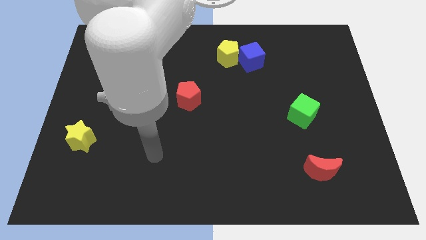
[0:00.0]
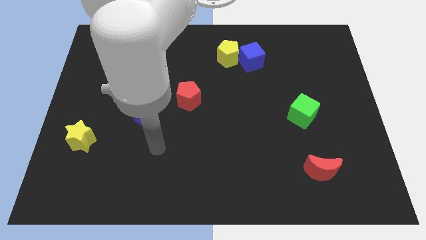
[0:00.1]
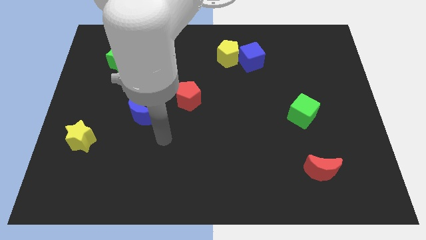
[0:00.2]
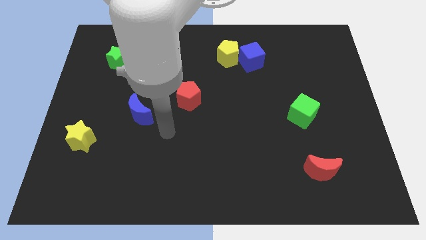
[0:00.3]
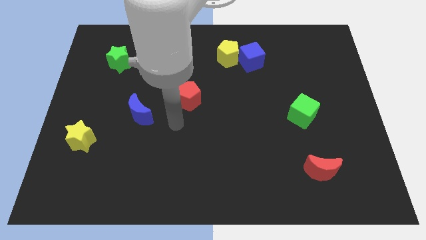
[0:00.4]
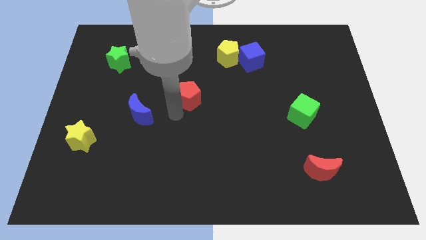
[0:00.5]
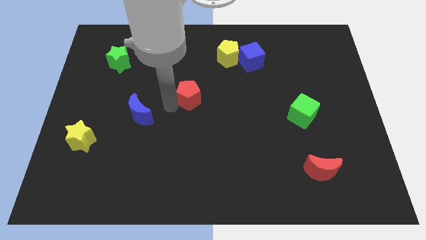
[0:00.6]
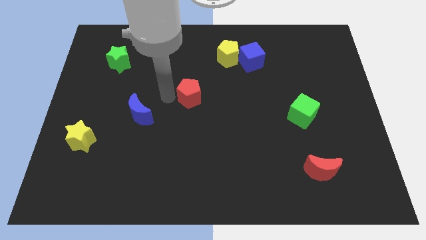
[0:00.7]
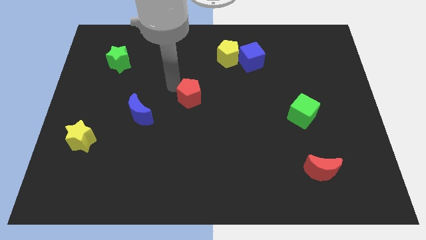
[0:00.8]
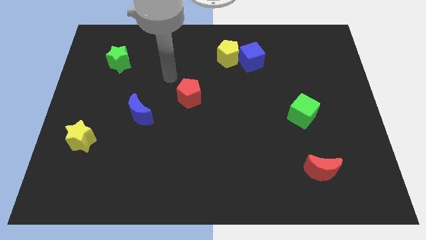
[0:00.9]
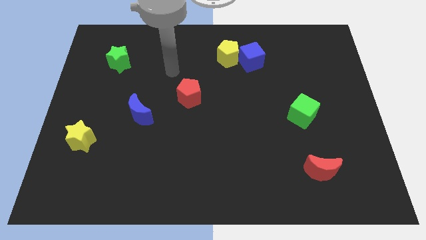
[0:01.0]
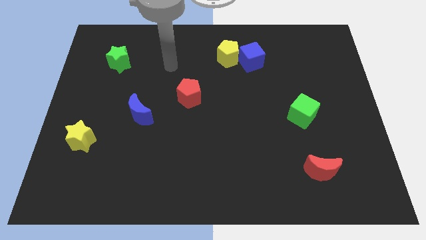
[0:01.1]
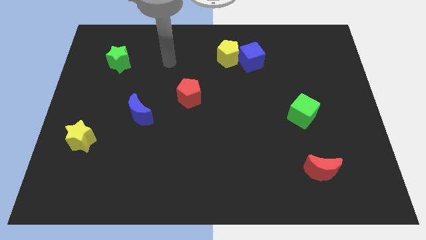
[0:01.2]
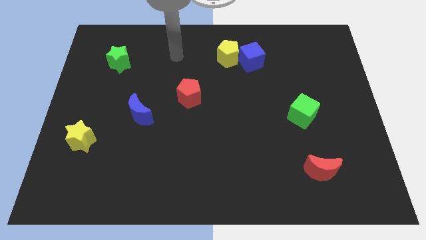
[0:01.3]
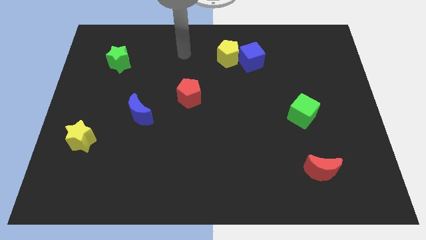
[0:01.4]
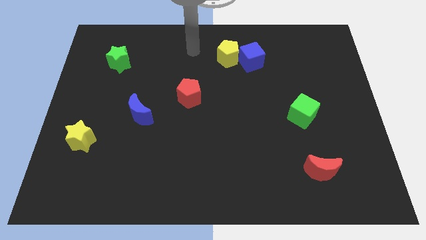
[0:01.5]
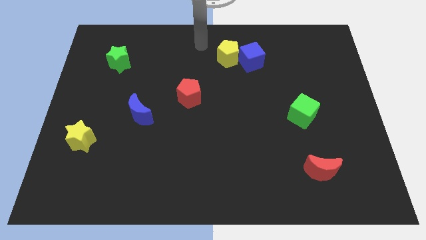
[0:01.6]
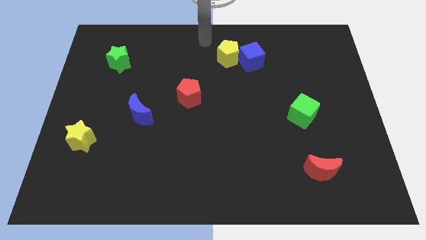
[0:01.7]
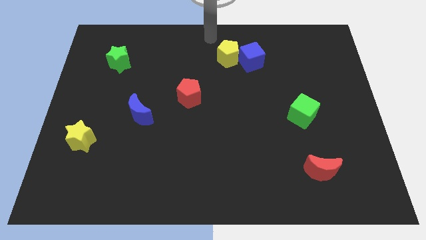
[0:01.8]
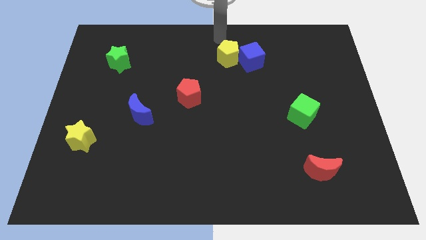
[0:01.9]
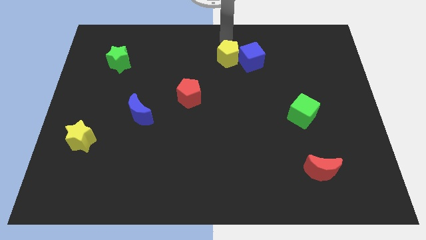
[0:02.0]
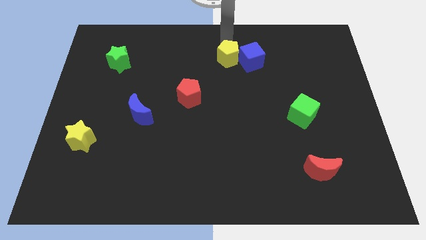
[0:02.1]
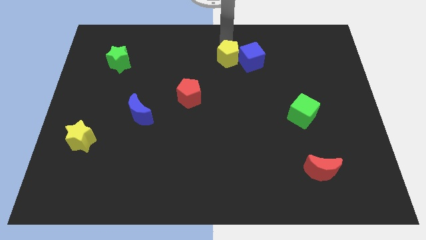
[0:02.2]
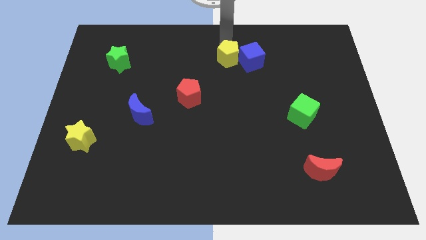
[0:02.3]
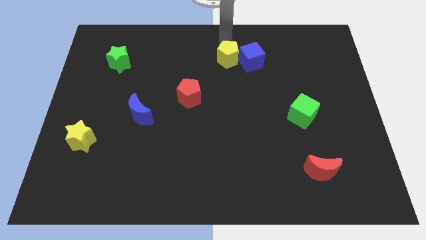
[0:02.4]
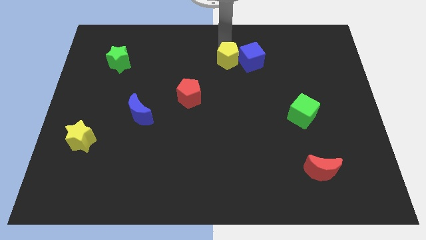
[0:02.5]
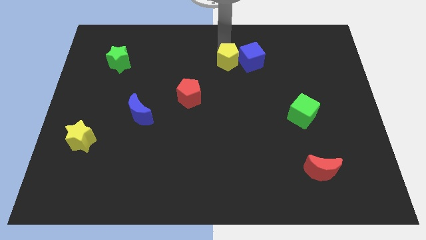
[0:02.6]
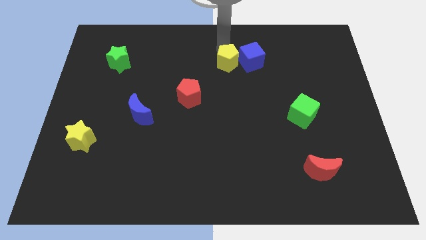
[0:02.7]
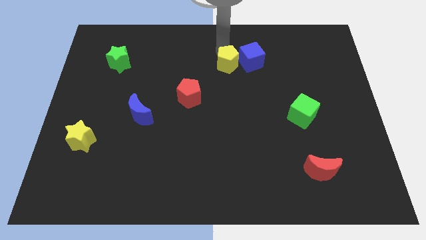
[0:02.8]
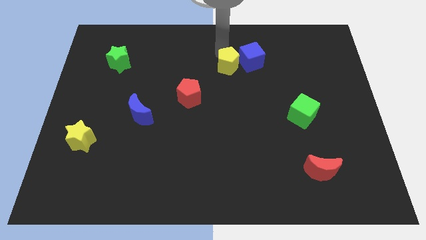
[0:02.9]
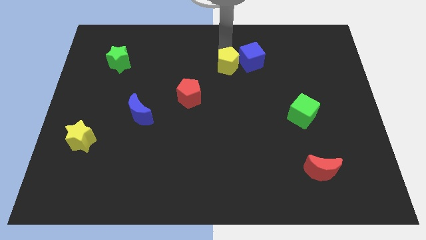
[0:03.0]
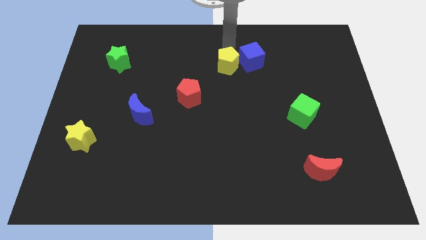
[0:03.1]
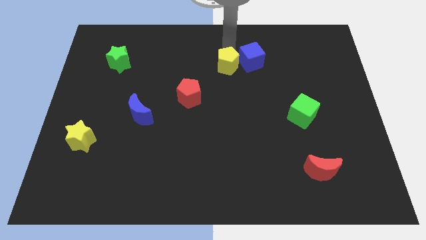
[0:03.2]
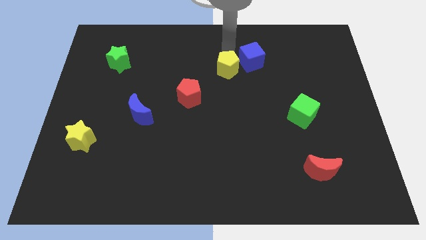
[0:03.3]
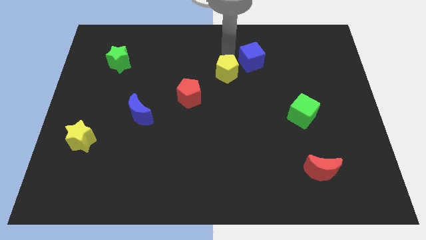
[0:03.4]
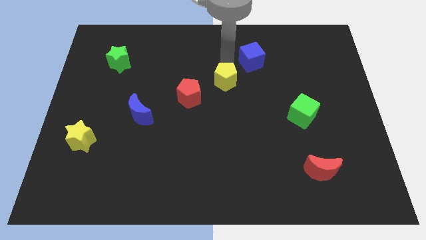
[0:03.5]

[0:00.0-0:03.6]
move the yellow pentagon down somewhat

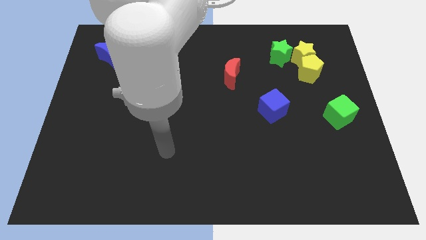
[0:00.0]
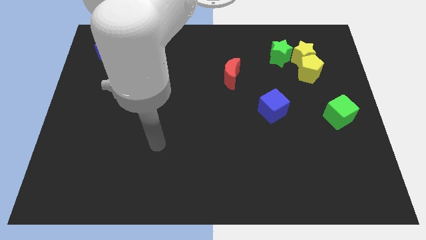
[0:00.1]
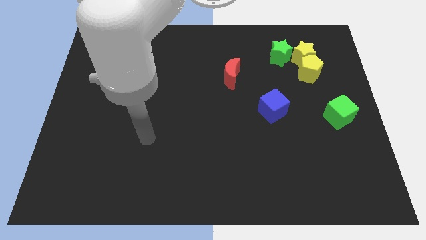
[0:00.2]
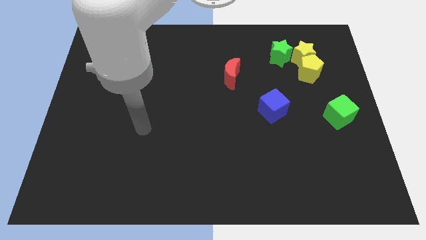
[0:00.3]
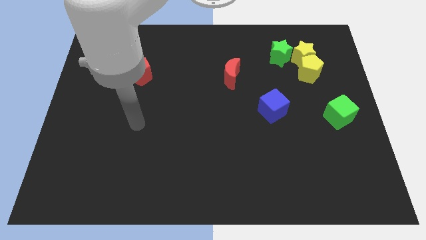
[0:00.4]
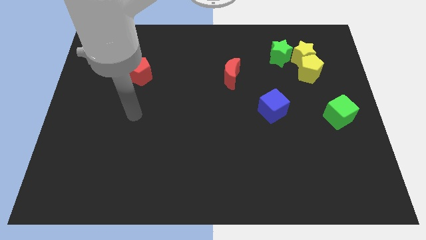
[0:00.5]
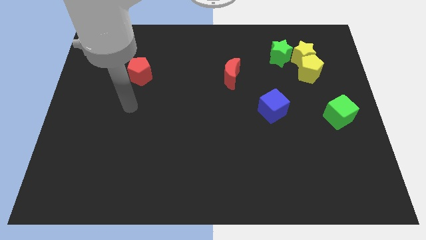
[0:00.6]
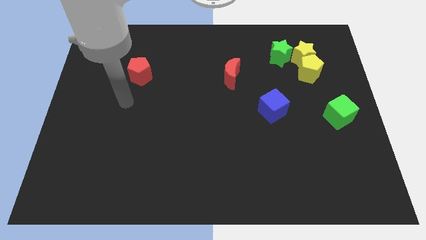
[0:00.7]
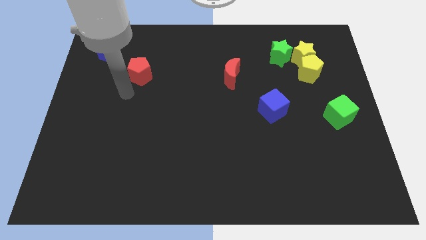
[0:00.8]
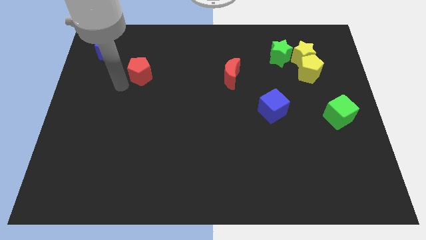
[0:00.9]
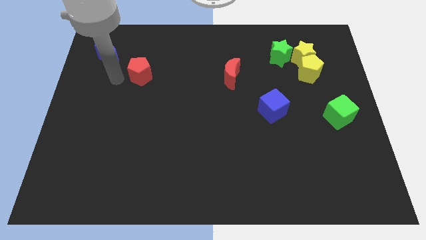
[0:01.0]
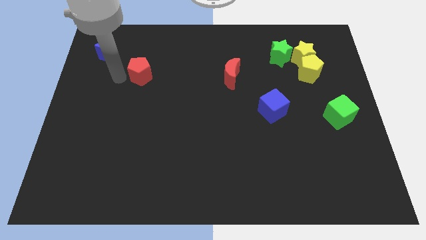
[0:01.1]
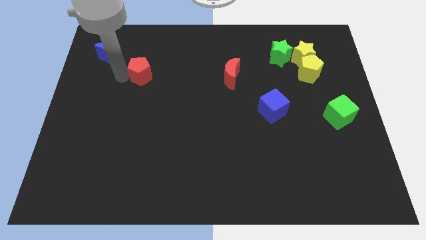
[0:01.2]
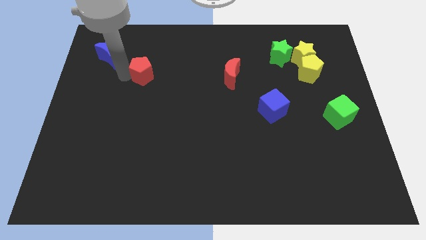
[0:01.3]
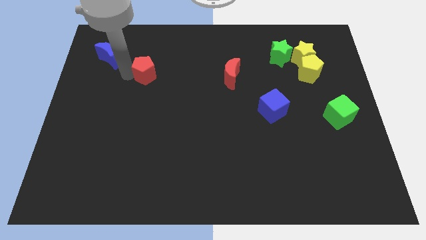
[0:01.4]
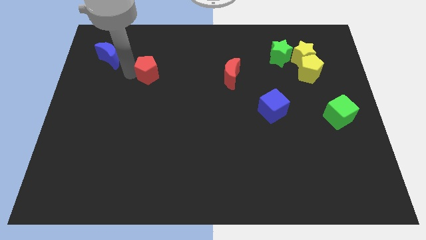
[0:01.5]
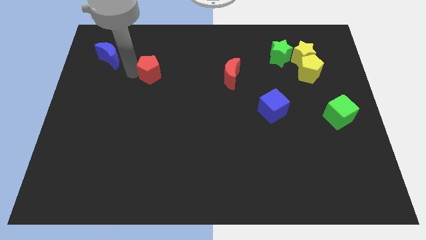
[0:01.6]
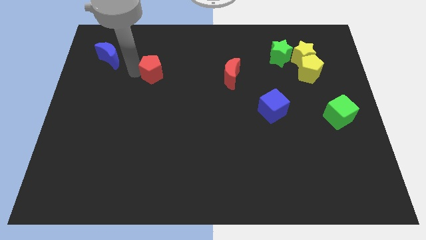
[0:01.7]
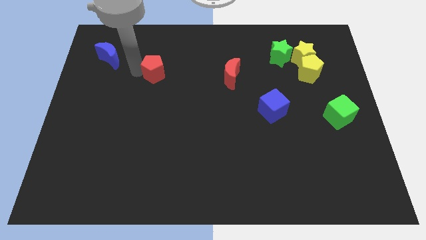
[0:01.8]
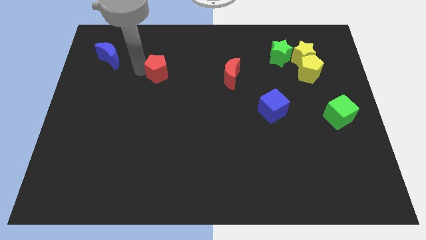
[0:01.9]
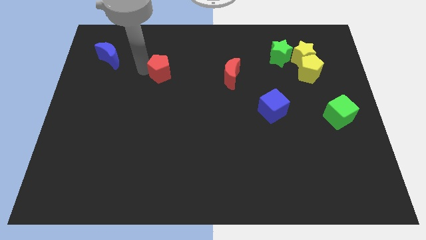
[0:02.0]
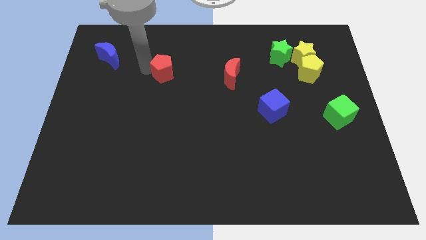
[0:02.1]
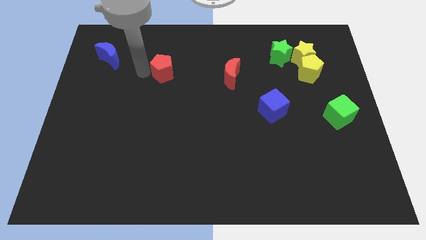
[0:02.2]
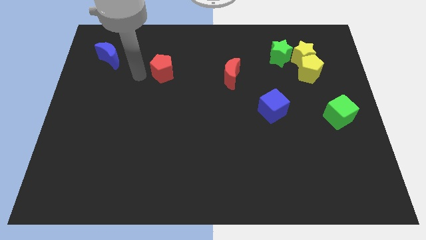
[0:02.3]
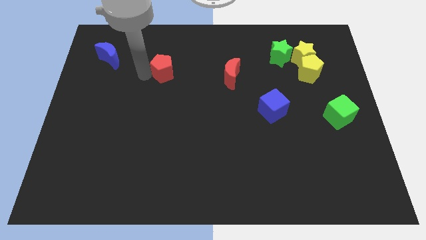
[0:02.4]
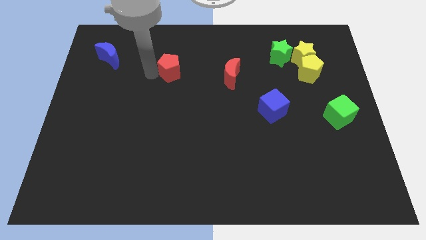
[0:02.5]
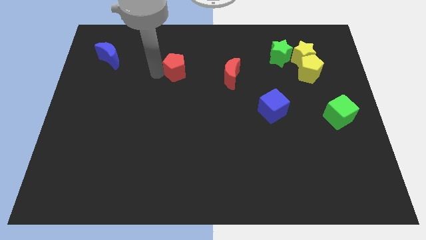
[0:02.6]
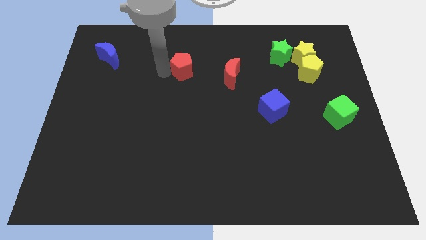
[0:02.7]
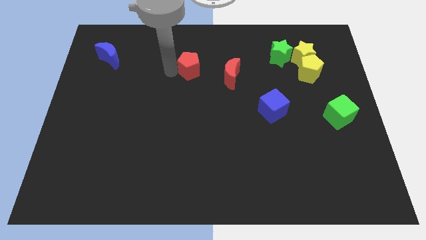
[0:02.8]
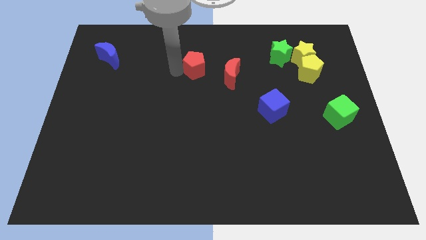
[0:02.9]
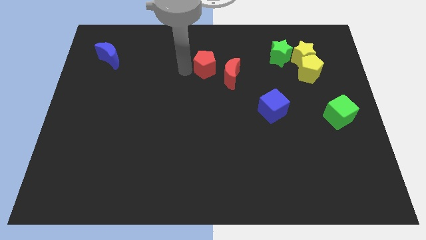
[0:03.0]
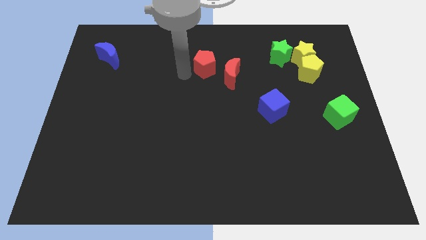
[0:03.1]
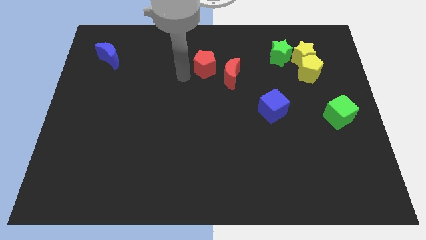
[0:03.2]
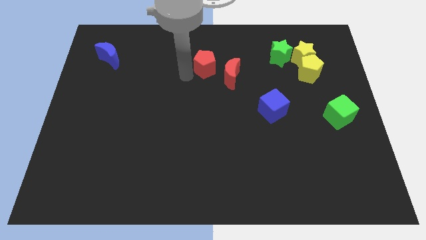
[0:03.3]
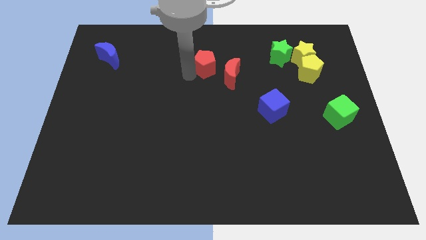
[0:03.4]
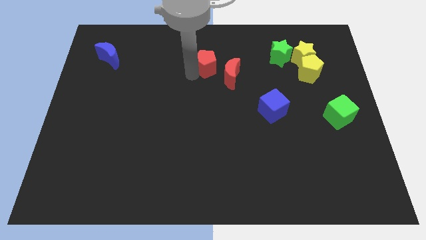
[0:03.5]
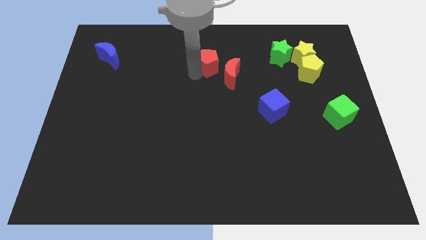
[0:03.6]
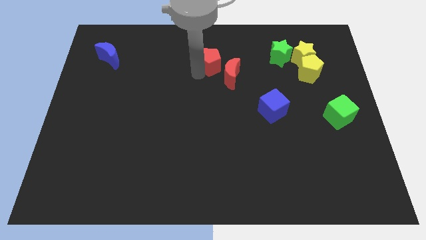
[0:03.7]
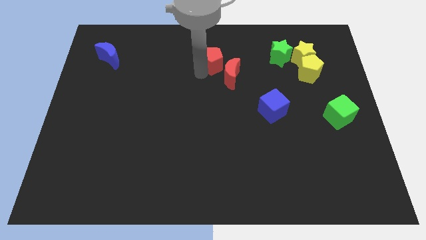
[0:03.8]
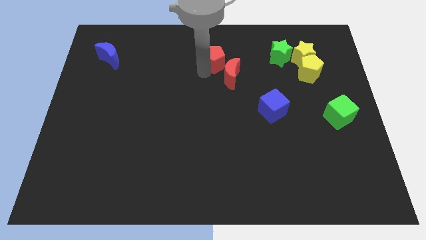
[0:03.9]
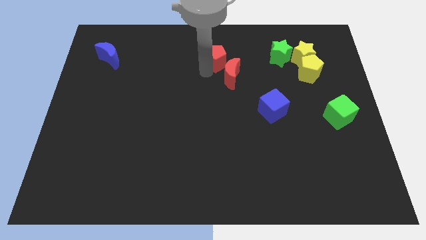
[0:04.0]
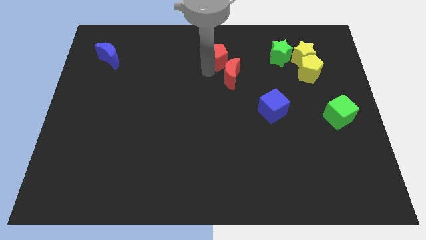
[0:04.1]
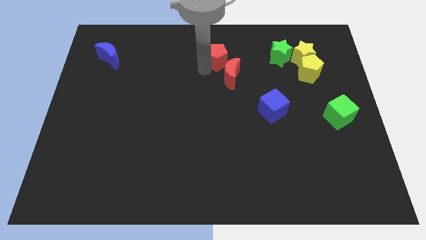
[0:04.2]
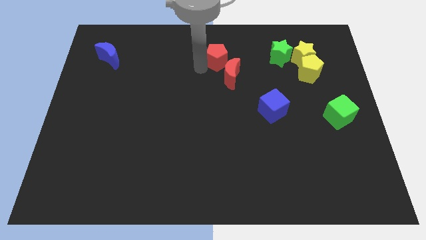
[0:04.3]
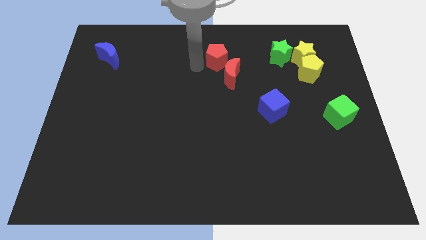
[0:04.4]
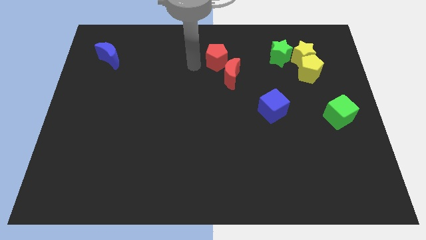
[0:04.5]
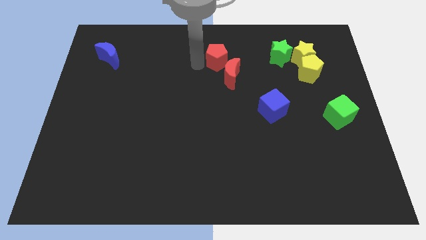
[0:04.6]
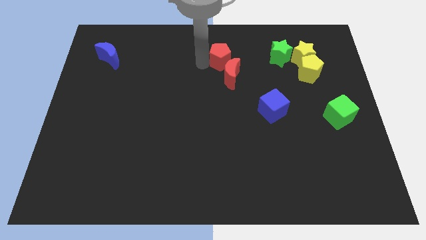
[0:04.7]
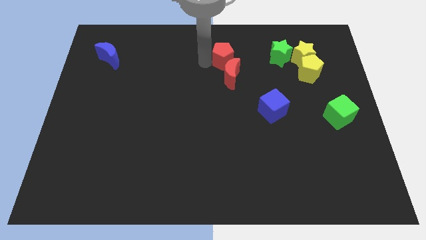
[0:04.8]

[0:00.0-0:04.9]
push the red pentagon right

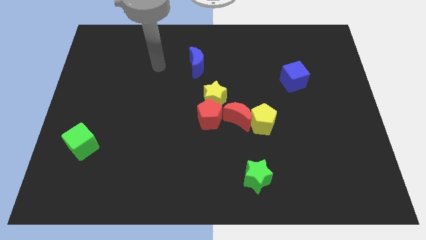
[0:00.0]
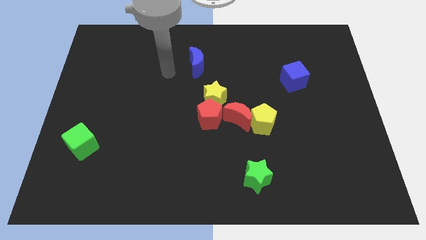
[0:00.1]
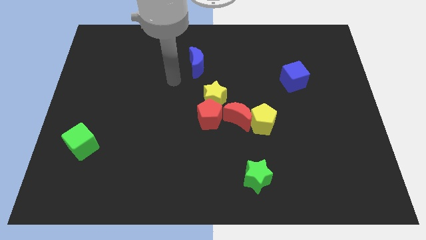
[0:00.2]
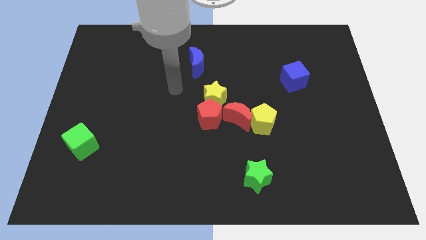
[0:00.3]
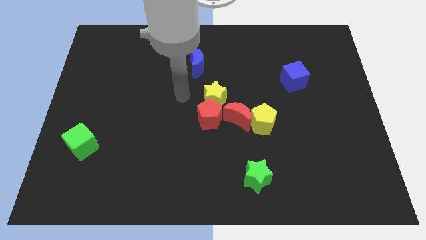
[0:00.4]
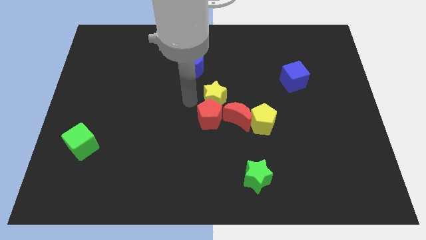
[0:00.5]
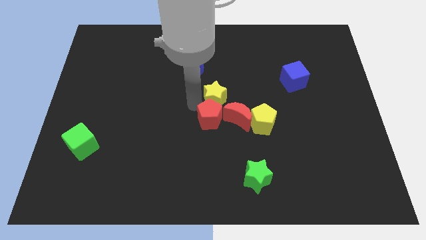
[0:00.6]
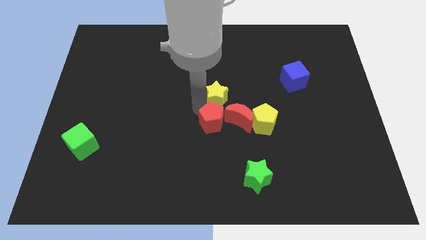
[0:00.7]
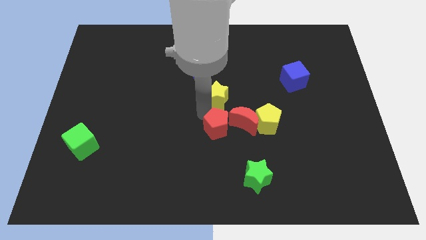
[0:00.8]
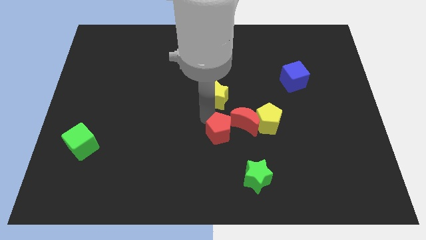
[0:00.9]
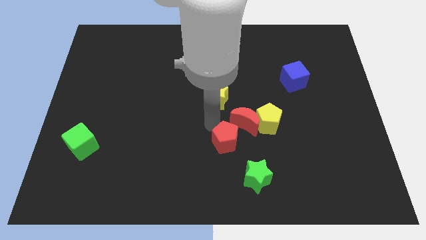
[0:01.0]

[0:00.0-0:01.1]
slightly push the red pentagon downwards and then to the right
